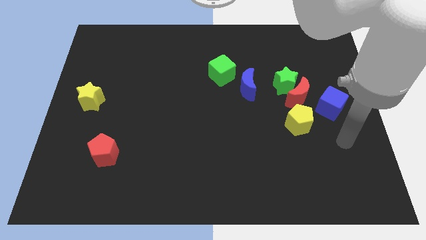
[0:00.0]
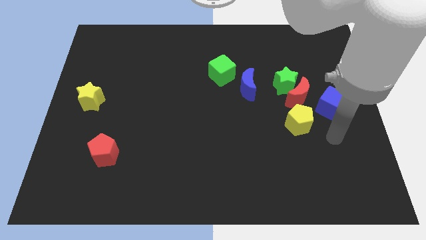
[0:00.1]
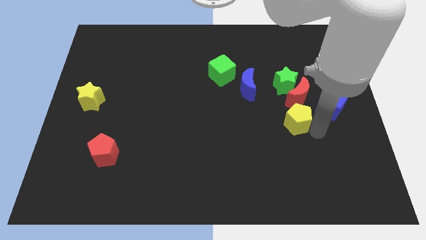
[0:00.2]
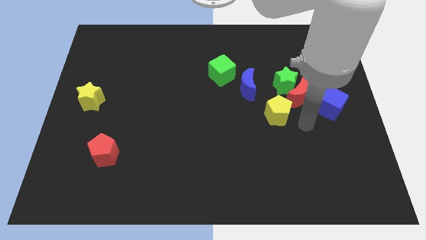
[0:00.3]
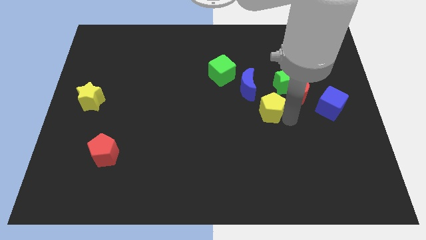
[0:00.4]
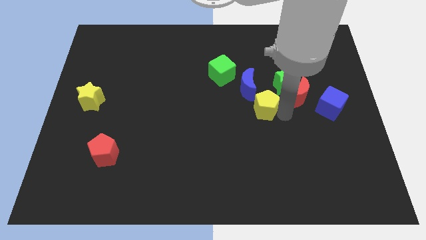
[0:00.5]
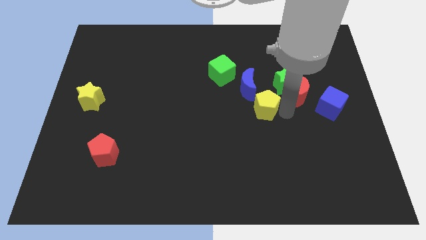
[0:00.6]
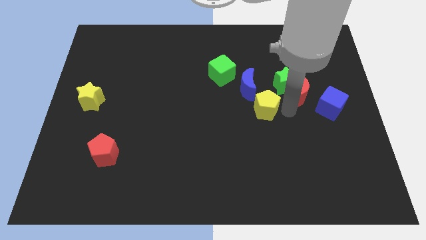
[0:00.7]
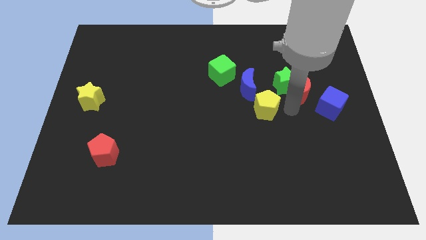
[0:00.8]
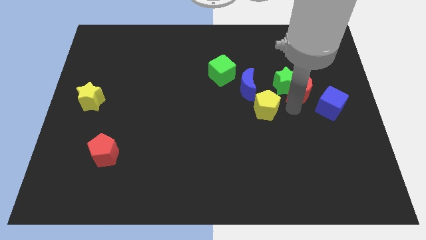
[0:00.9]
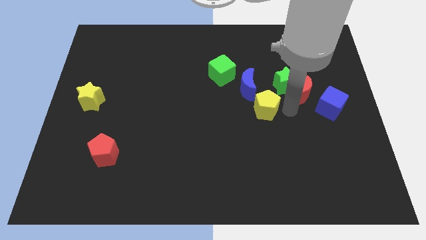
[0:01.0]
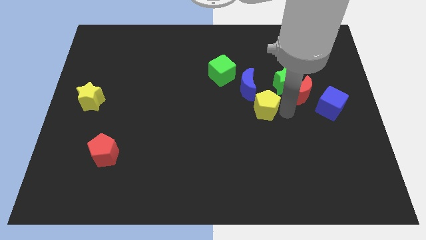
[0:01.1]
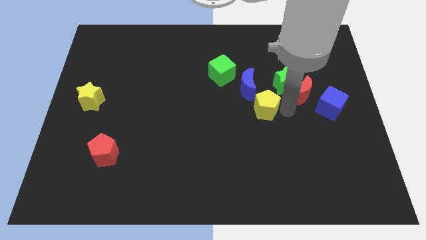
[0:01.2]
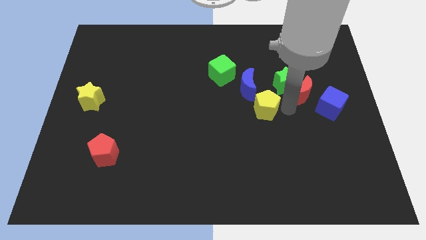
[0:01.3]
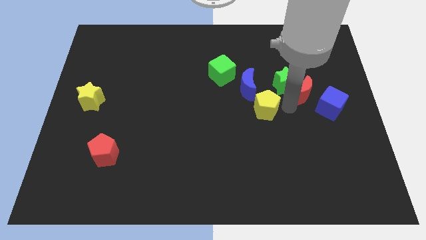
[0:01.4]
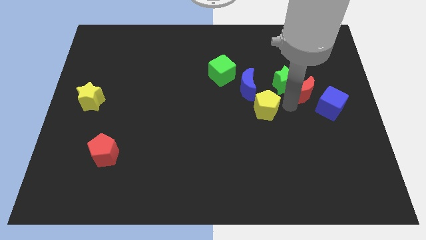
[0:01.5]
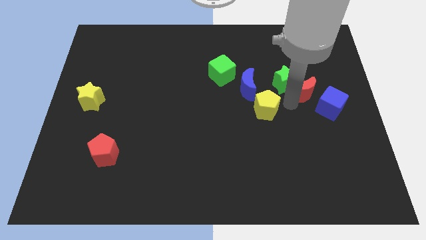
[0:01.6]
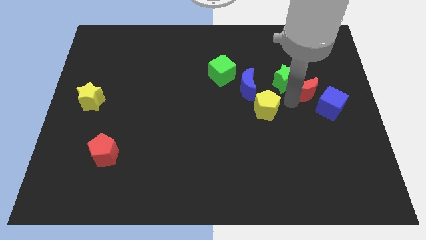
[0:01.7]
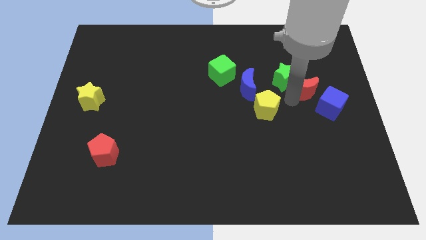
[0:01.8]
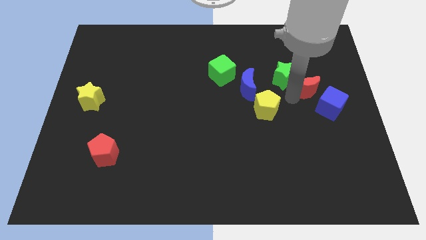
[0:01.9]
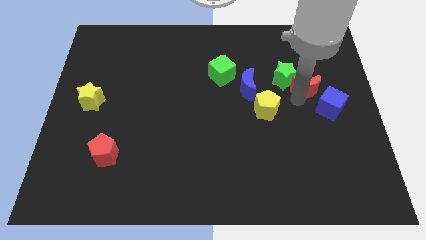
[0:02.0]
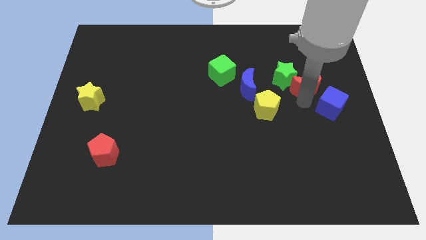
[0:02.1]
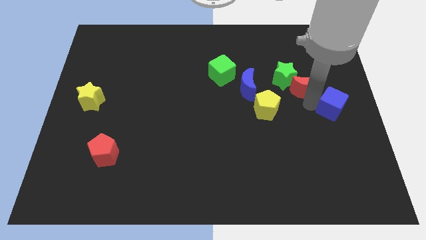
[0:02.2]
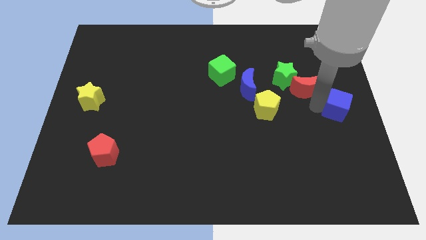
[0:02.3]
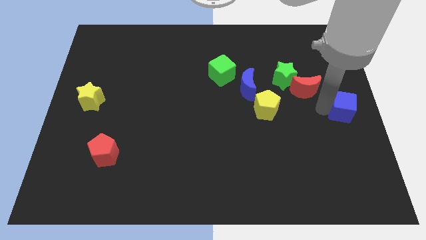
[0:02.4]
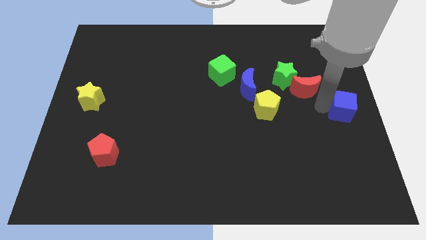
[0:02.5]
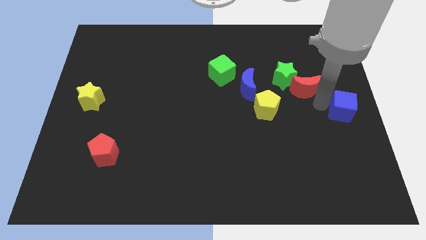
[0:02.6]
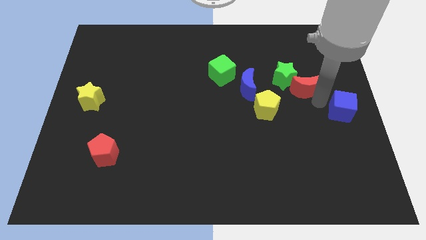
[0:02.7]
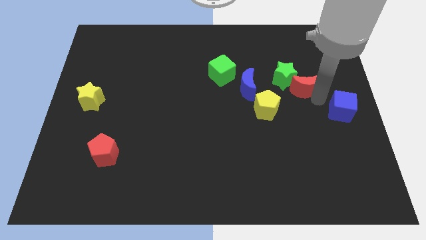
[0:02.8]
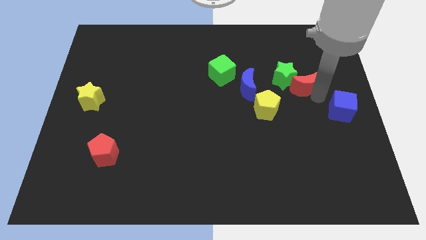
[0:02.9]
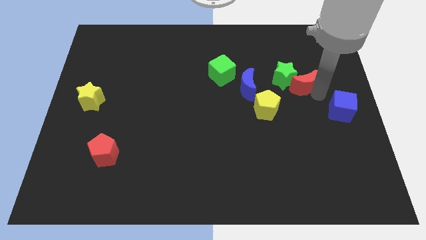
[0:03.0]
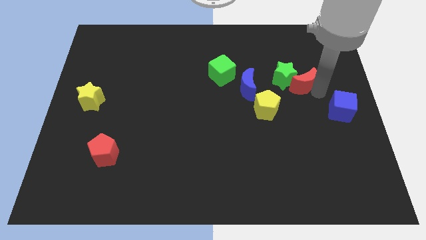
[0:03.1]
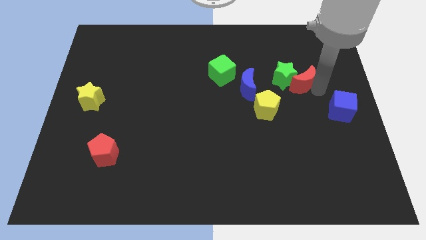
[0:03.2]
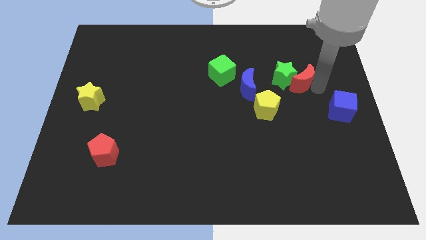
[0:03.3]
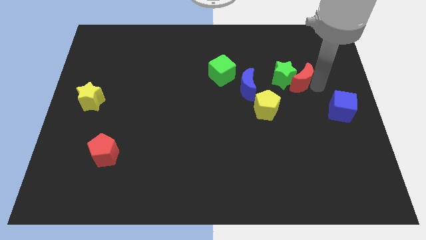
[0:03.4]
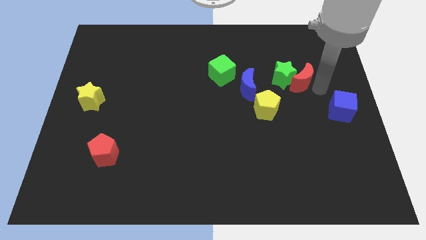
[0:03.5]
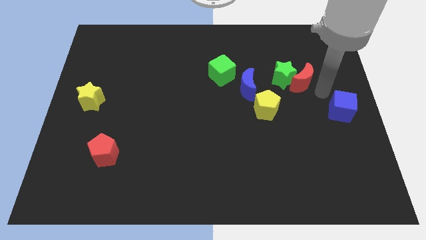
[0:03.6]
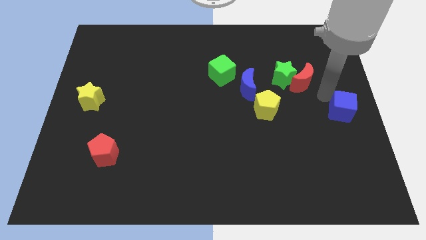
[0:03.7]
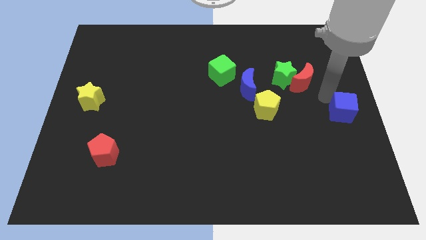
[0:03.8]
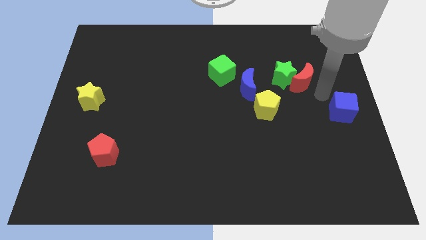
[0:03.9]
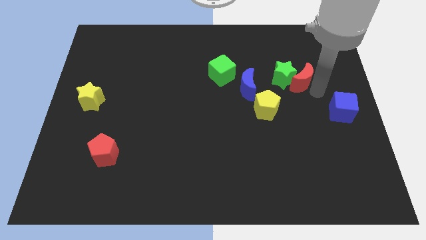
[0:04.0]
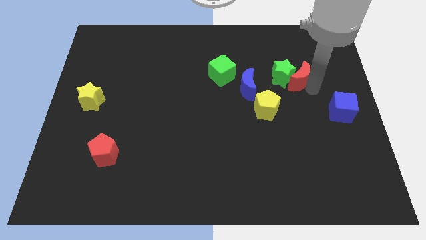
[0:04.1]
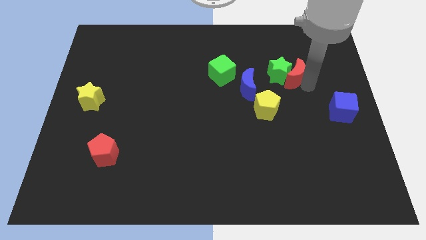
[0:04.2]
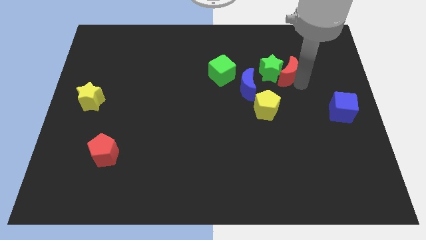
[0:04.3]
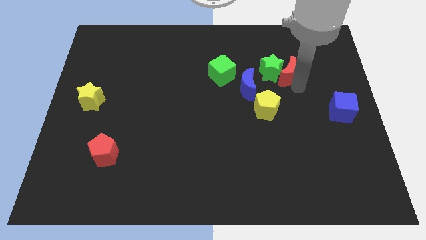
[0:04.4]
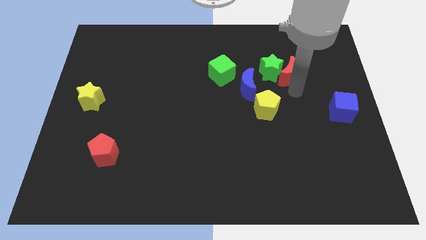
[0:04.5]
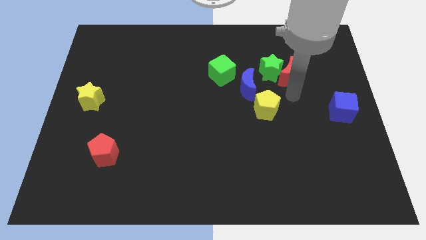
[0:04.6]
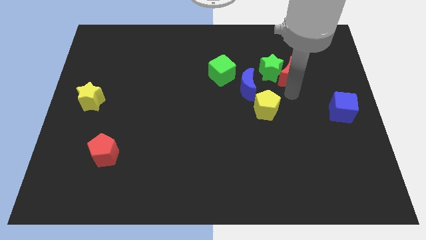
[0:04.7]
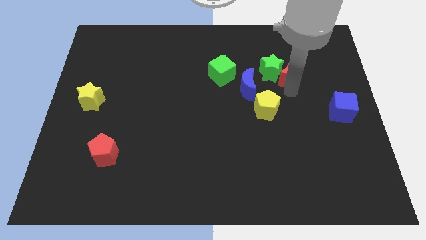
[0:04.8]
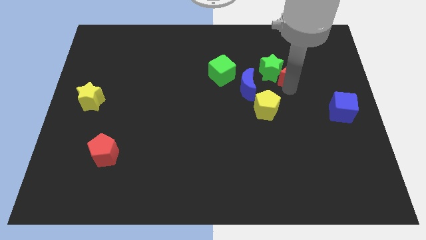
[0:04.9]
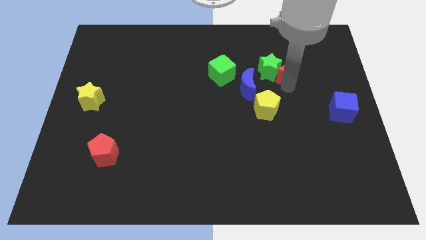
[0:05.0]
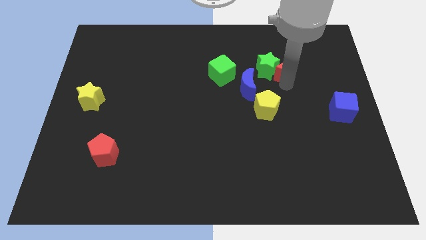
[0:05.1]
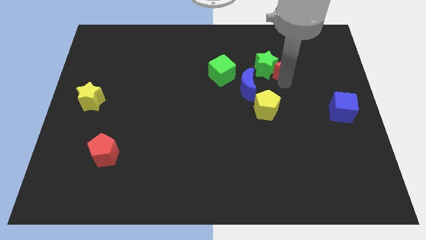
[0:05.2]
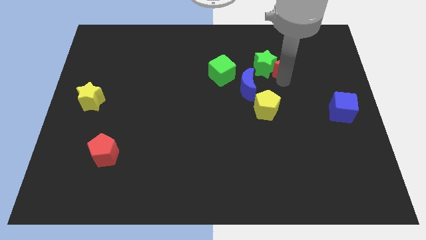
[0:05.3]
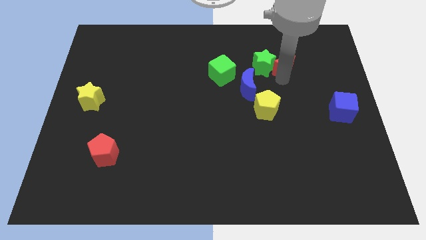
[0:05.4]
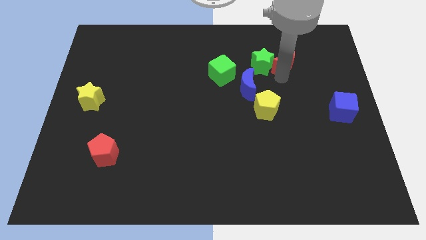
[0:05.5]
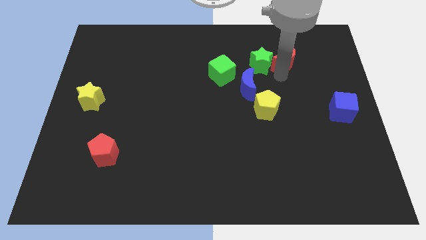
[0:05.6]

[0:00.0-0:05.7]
pull the red moon apart from the group of blocks

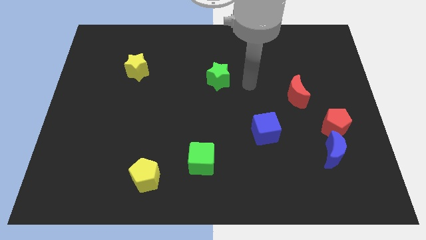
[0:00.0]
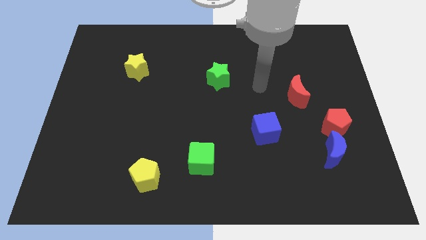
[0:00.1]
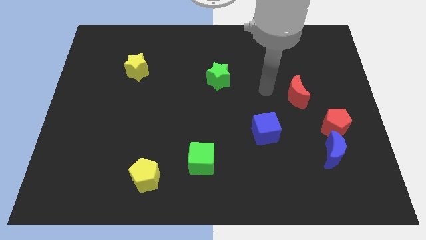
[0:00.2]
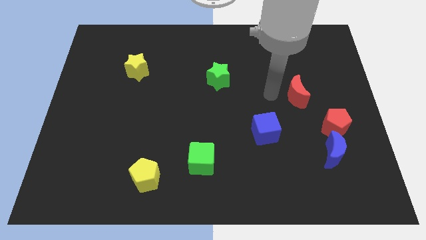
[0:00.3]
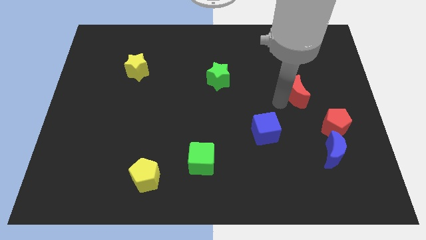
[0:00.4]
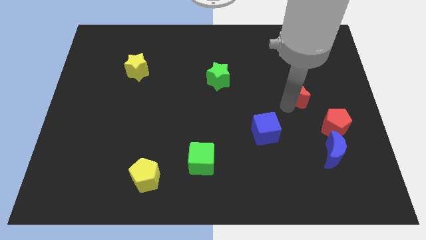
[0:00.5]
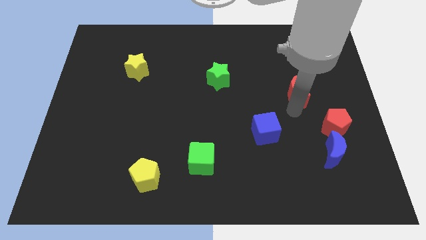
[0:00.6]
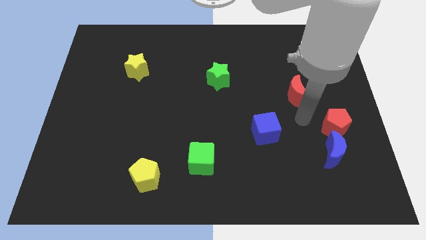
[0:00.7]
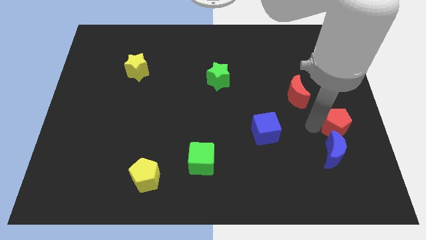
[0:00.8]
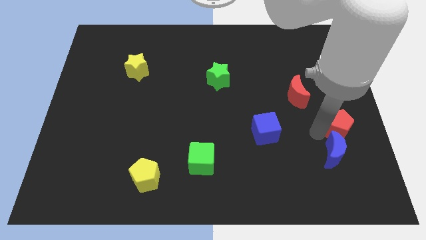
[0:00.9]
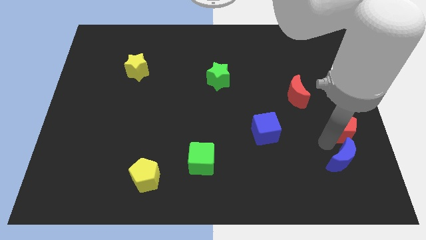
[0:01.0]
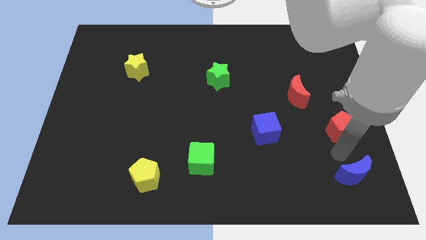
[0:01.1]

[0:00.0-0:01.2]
separate the red pentagon from the blue moon

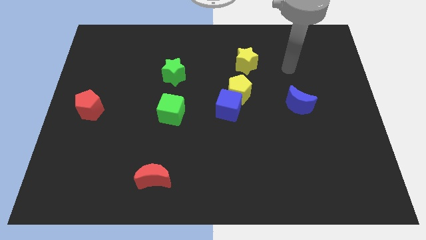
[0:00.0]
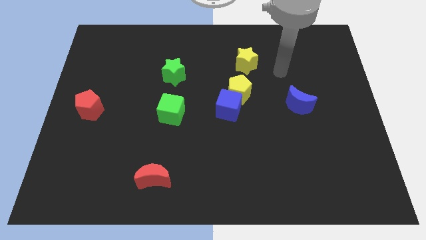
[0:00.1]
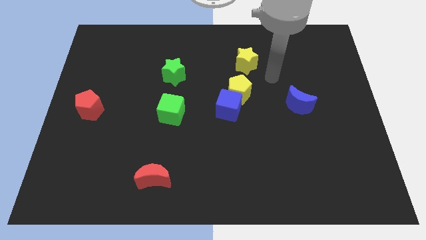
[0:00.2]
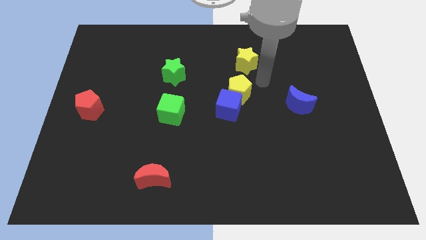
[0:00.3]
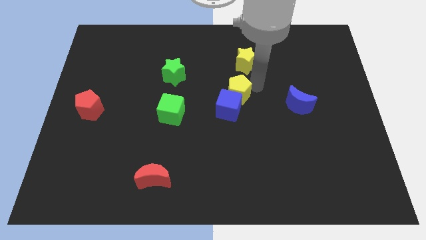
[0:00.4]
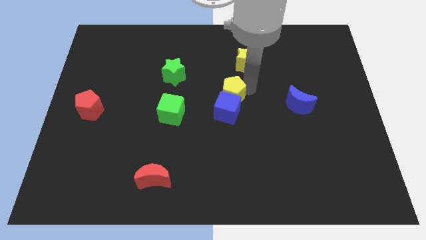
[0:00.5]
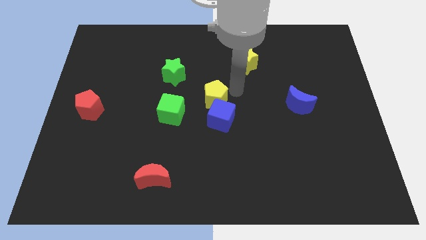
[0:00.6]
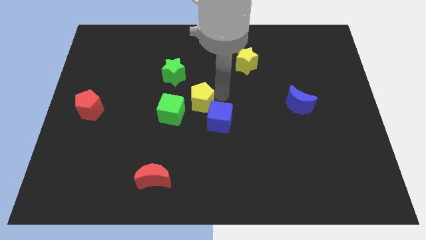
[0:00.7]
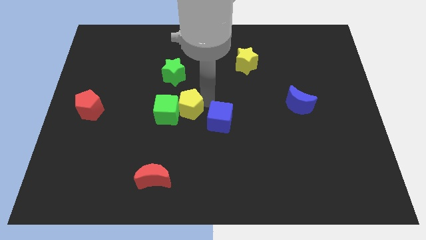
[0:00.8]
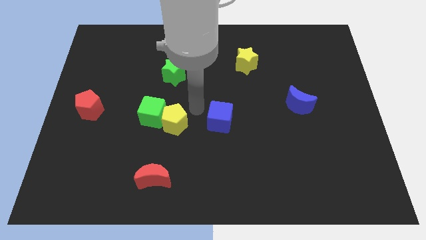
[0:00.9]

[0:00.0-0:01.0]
move the blue cube away from the yellow pentagon

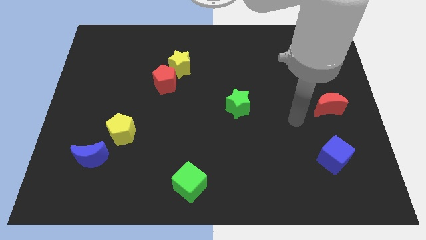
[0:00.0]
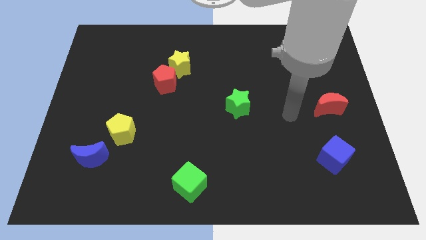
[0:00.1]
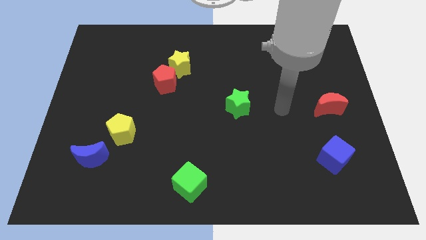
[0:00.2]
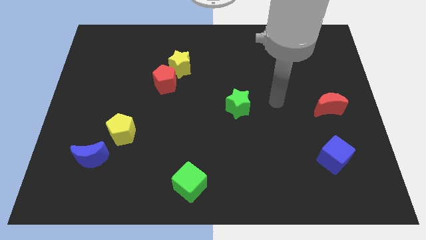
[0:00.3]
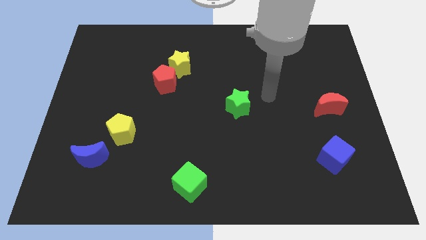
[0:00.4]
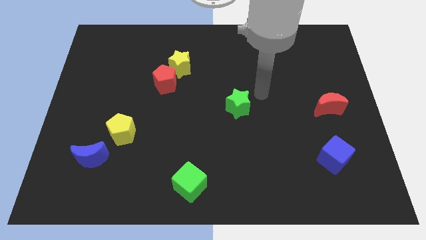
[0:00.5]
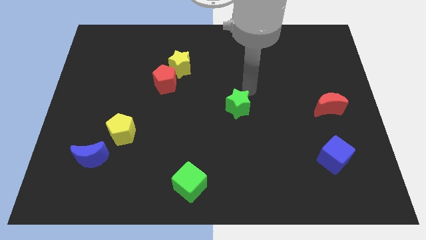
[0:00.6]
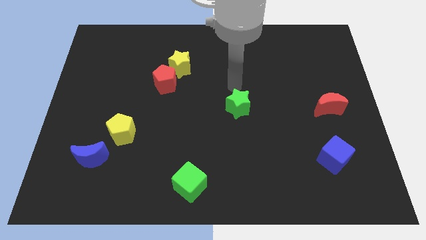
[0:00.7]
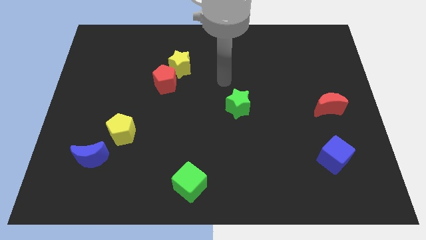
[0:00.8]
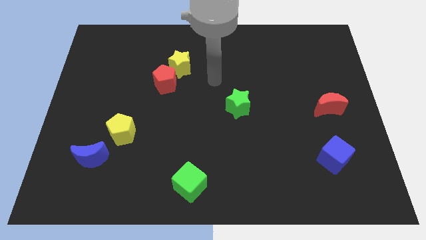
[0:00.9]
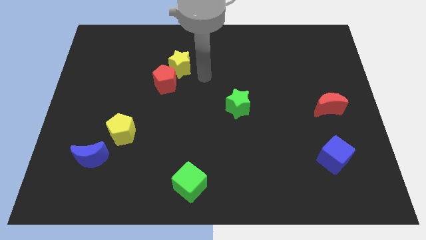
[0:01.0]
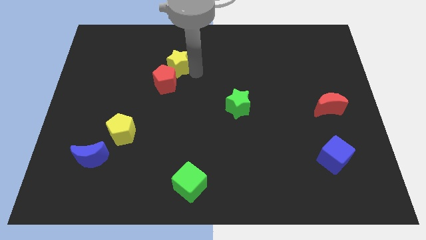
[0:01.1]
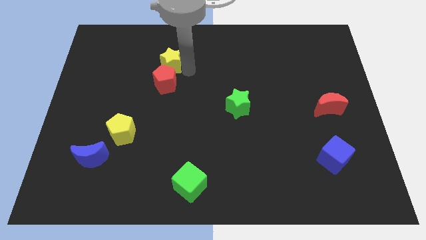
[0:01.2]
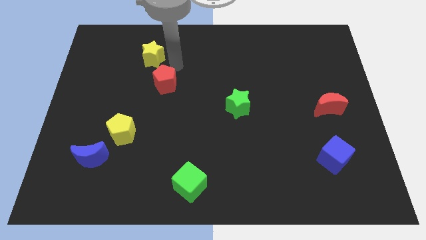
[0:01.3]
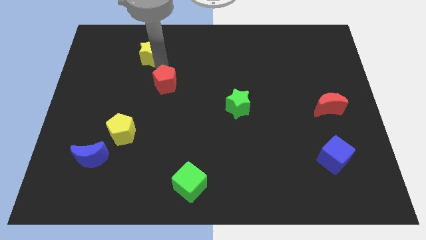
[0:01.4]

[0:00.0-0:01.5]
pull the red pentagon apart from the yellow star
